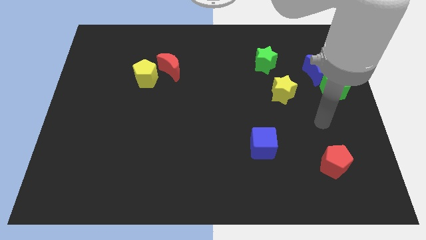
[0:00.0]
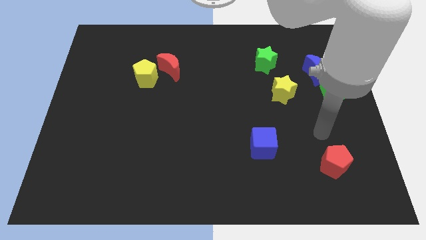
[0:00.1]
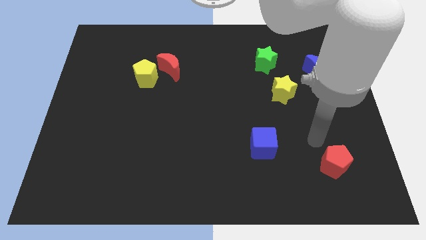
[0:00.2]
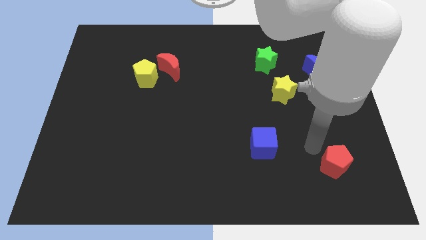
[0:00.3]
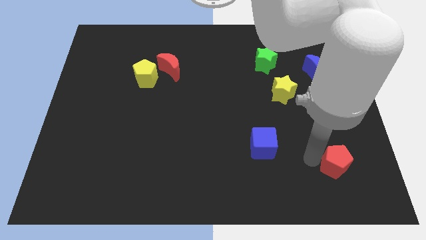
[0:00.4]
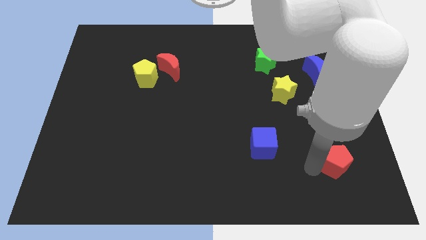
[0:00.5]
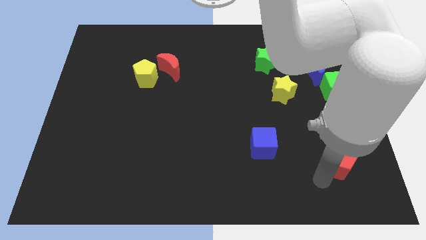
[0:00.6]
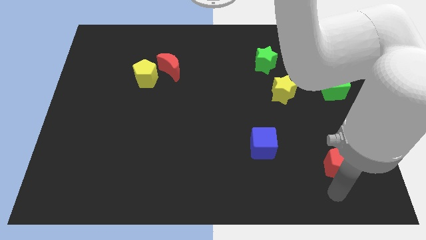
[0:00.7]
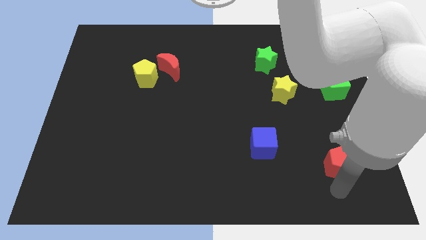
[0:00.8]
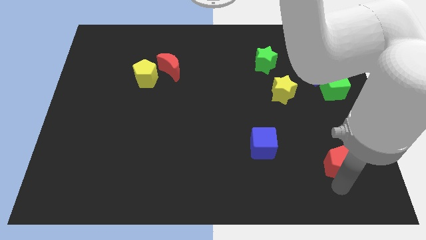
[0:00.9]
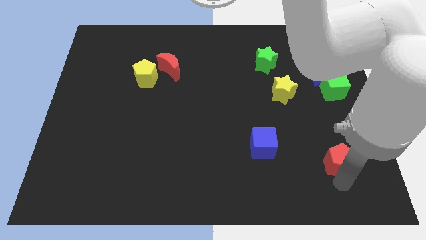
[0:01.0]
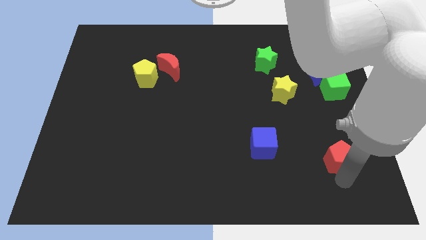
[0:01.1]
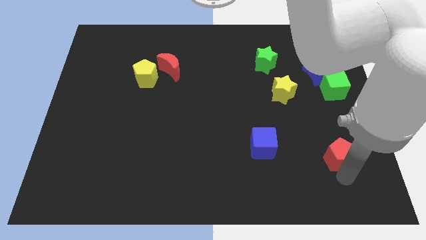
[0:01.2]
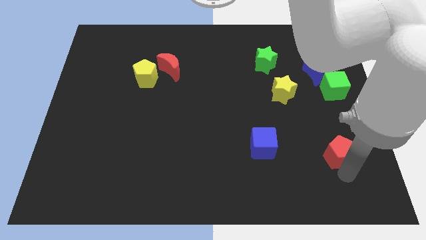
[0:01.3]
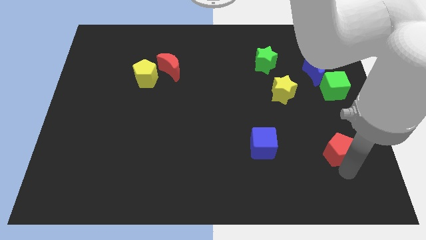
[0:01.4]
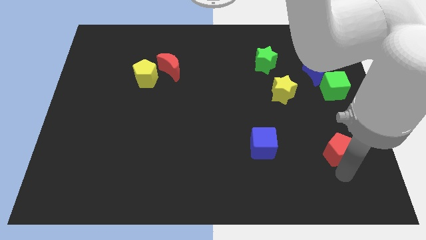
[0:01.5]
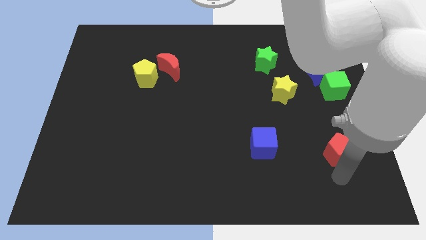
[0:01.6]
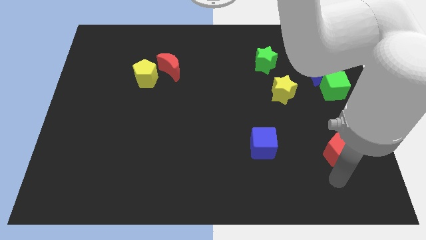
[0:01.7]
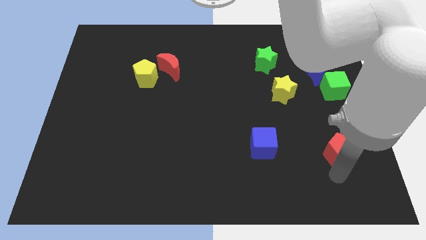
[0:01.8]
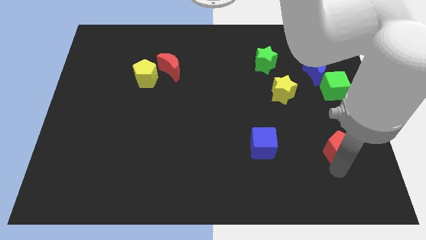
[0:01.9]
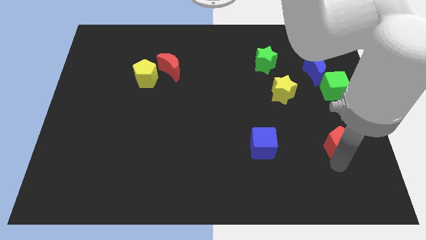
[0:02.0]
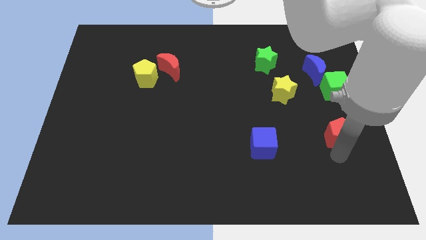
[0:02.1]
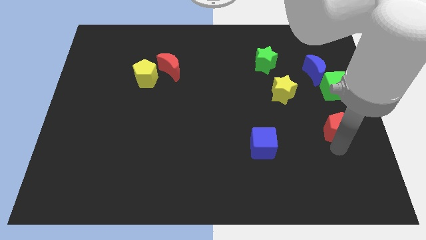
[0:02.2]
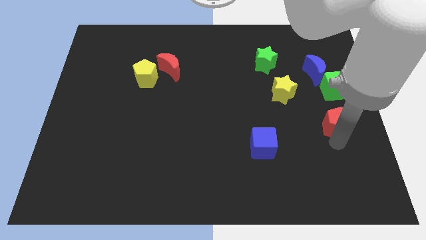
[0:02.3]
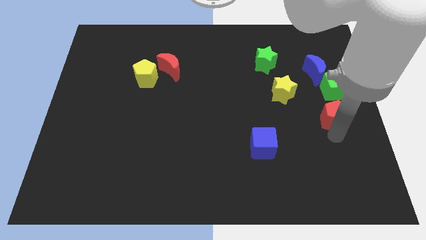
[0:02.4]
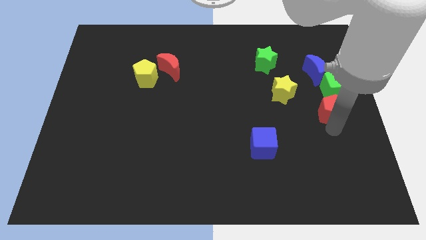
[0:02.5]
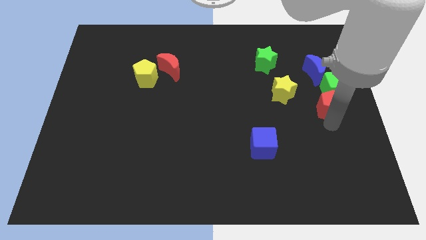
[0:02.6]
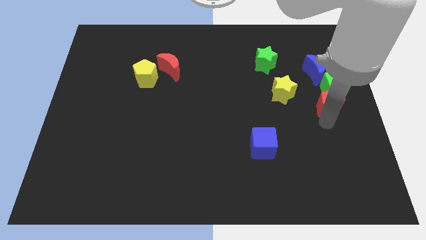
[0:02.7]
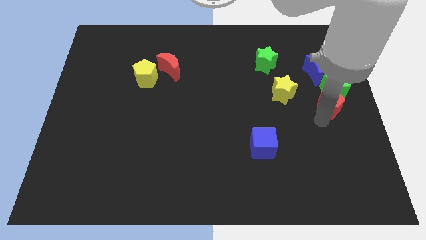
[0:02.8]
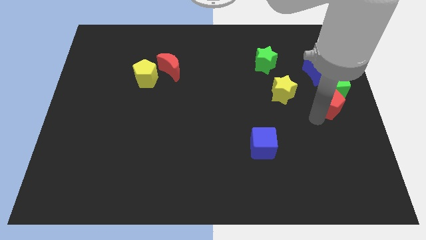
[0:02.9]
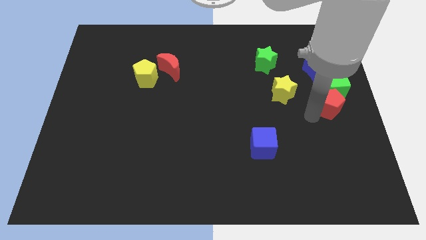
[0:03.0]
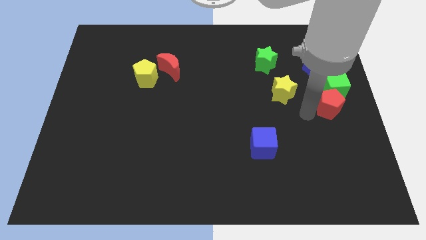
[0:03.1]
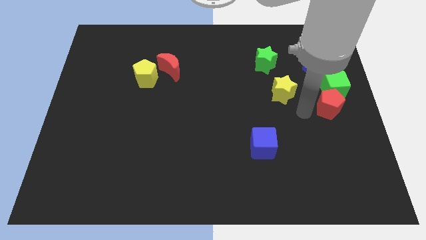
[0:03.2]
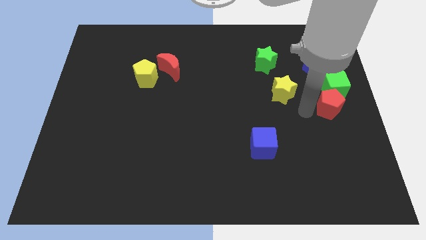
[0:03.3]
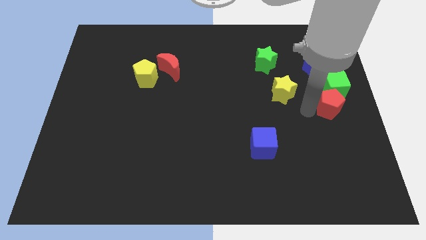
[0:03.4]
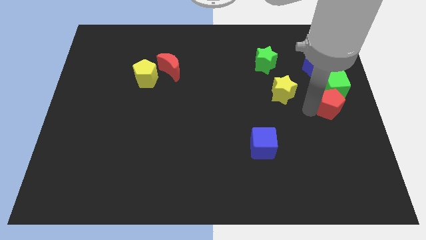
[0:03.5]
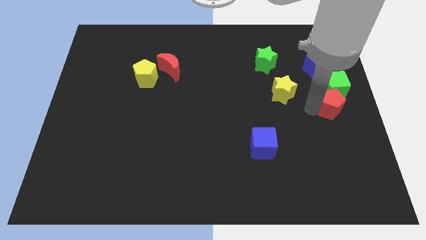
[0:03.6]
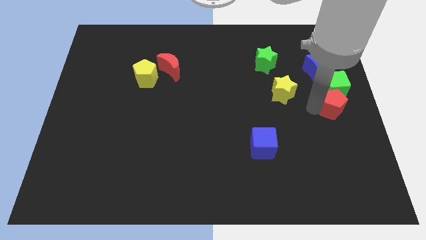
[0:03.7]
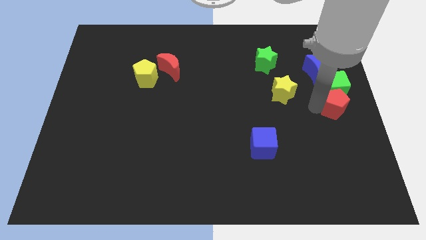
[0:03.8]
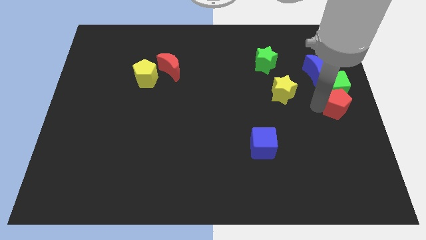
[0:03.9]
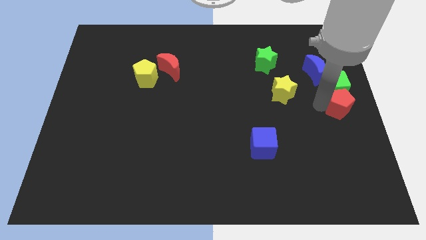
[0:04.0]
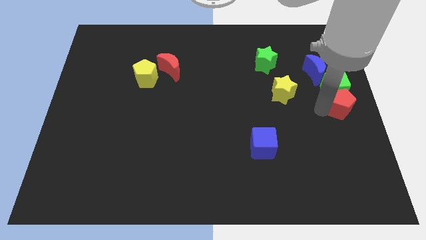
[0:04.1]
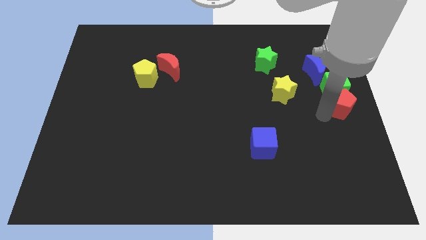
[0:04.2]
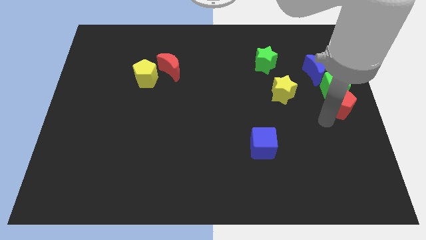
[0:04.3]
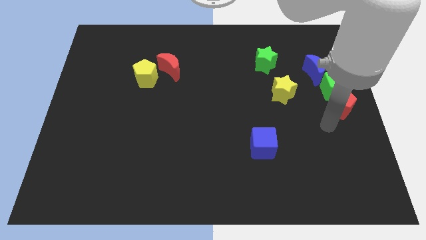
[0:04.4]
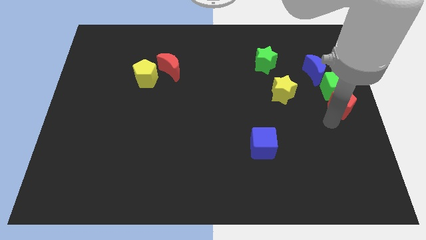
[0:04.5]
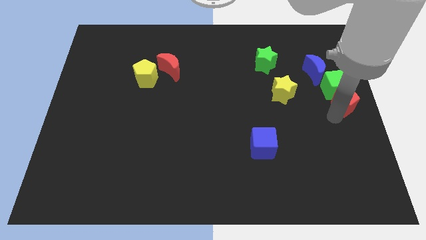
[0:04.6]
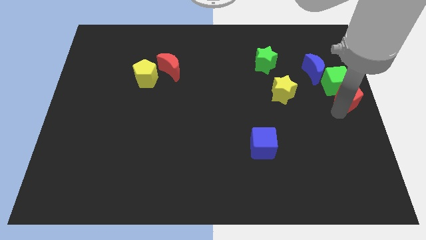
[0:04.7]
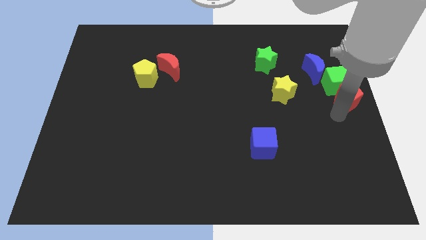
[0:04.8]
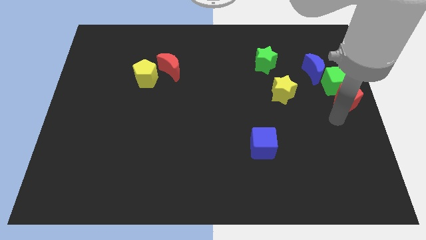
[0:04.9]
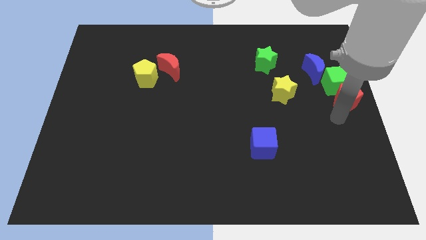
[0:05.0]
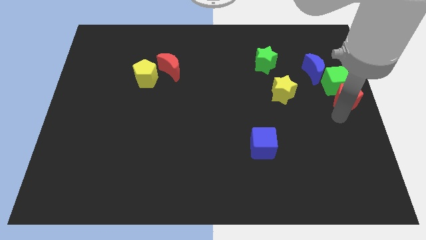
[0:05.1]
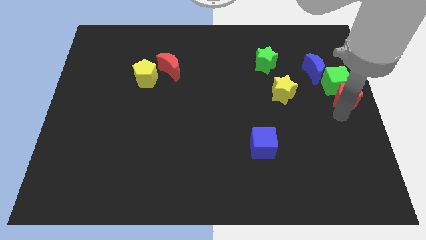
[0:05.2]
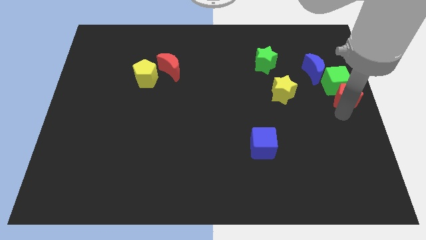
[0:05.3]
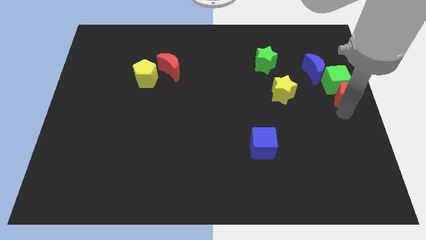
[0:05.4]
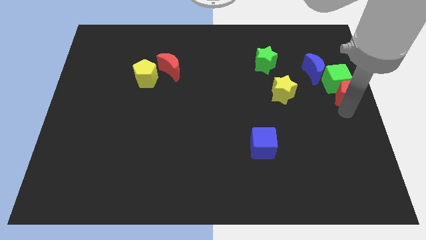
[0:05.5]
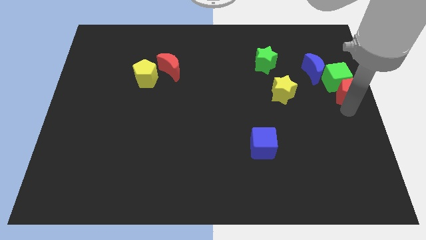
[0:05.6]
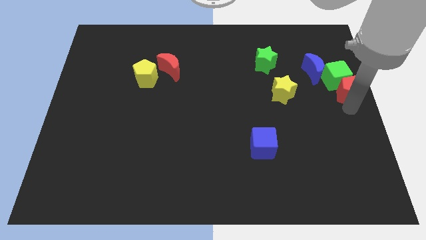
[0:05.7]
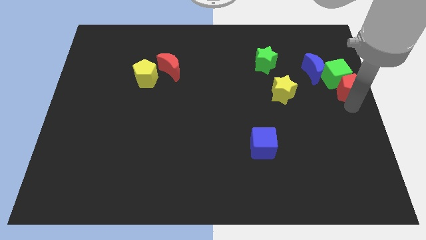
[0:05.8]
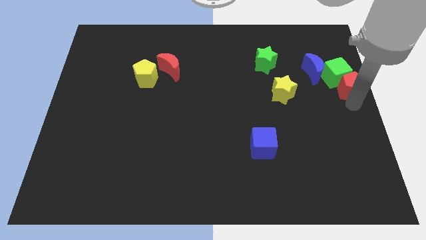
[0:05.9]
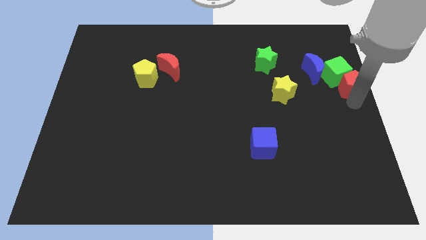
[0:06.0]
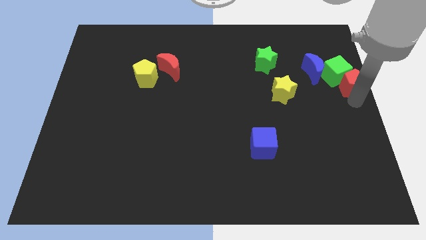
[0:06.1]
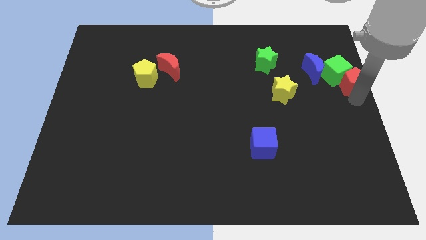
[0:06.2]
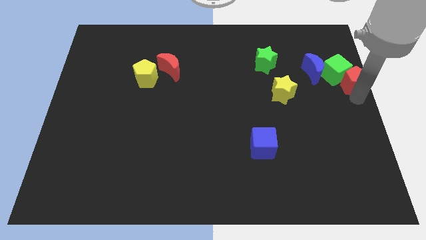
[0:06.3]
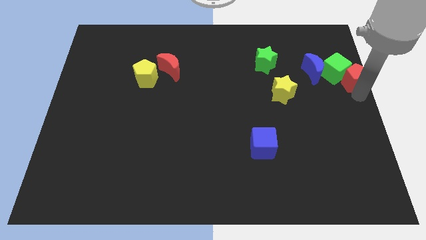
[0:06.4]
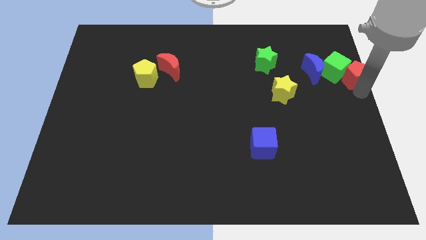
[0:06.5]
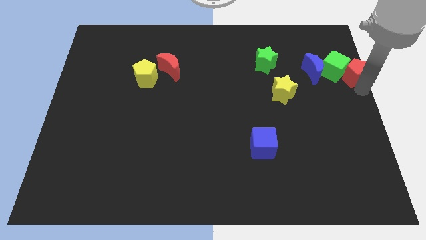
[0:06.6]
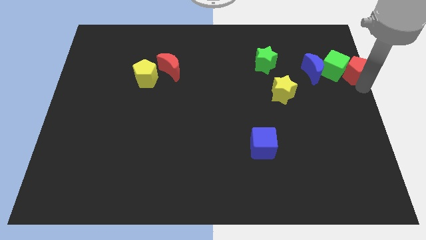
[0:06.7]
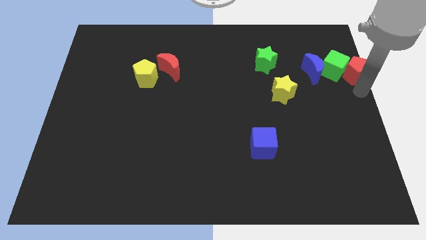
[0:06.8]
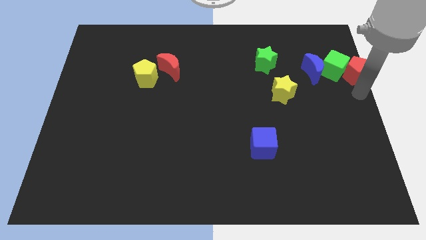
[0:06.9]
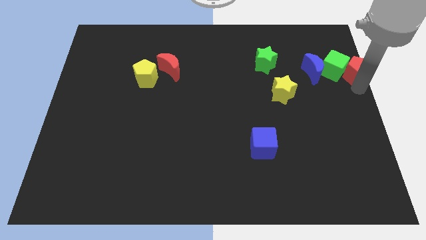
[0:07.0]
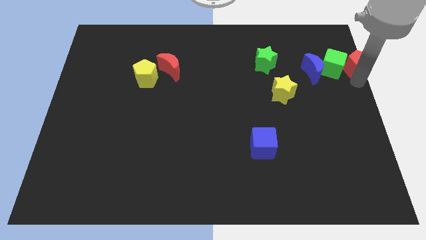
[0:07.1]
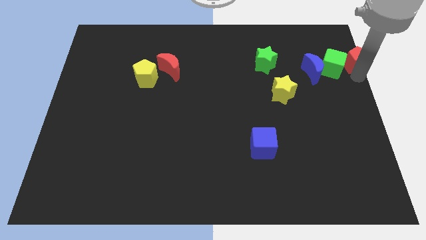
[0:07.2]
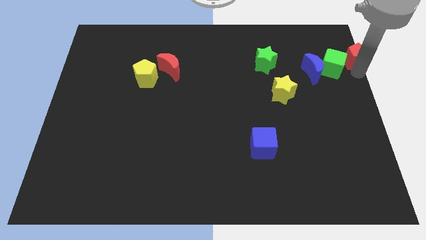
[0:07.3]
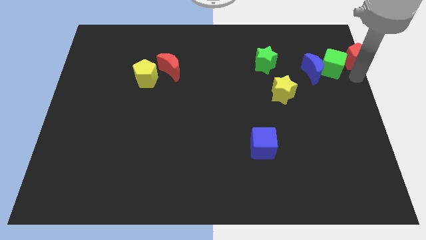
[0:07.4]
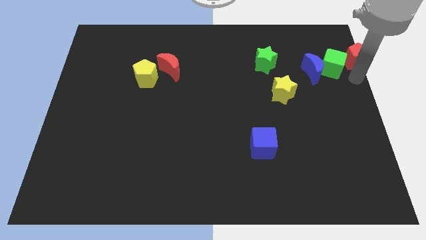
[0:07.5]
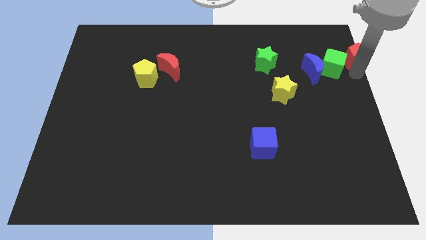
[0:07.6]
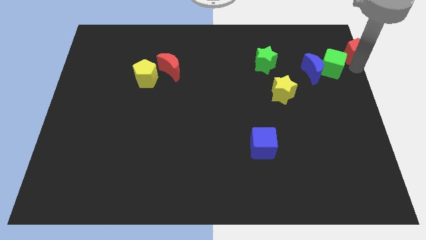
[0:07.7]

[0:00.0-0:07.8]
slide the red pentagon to the upper right corner
